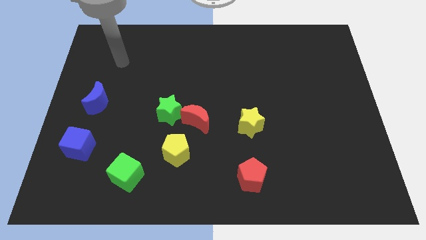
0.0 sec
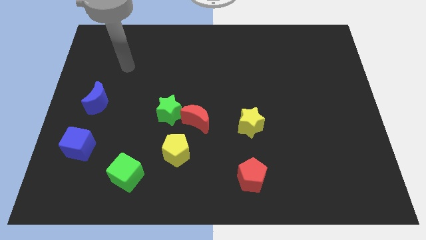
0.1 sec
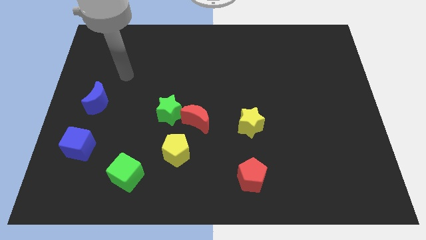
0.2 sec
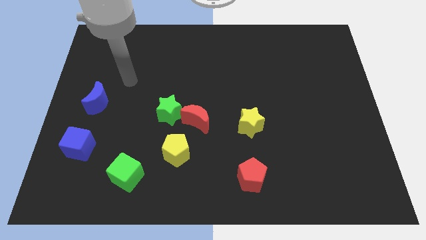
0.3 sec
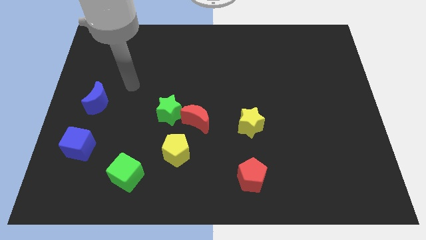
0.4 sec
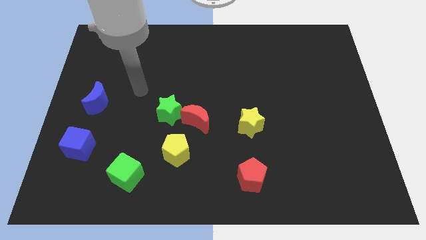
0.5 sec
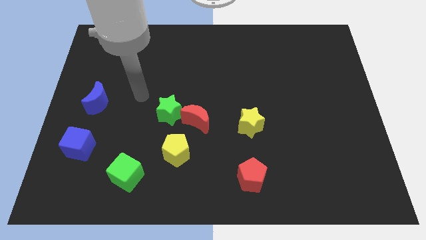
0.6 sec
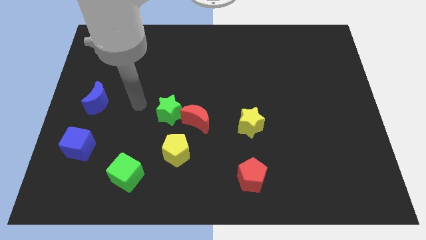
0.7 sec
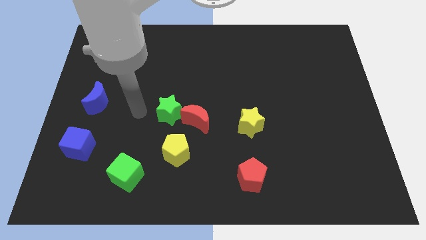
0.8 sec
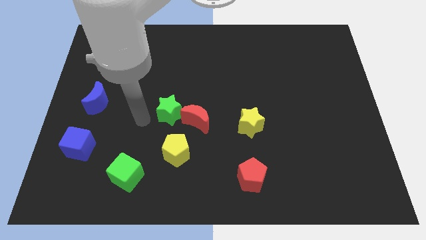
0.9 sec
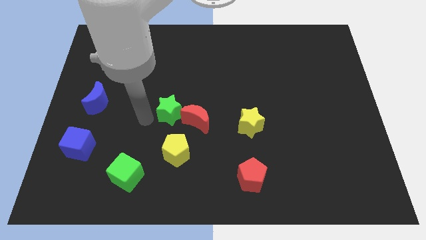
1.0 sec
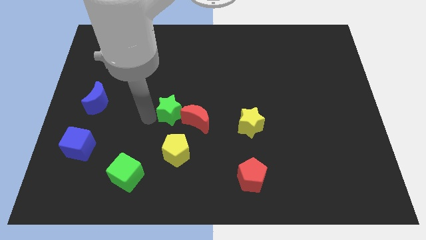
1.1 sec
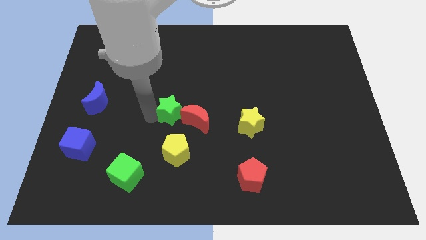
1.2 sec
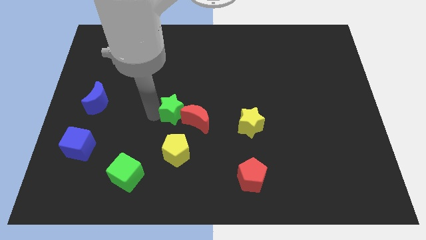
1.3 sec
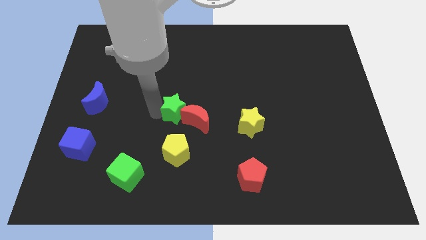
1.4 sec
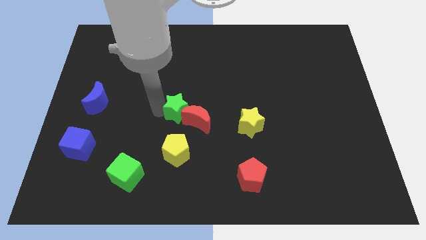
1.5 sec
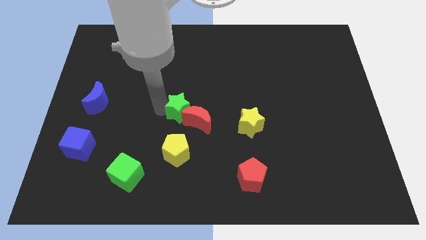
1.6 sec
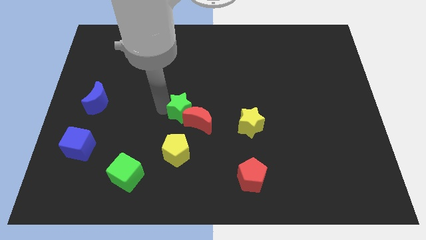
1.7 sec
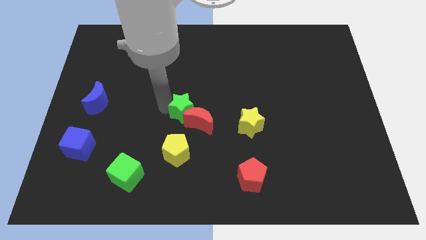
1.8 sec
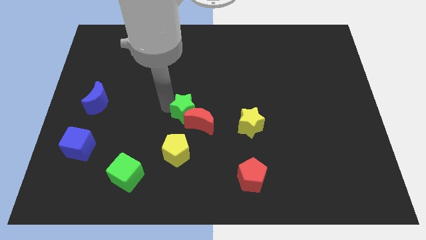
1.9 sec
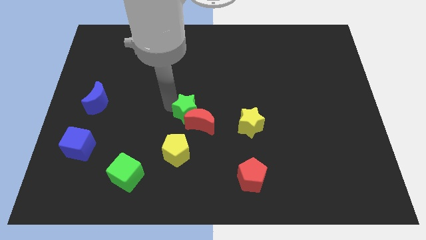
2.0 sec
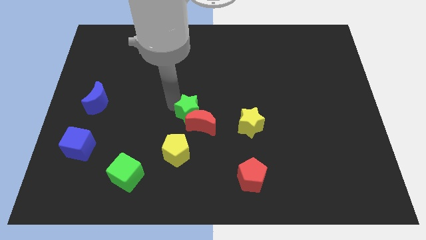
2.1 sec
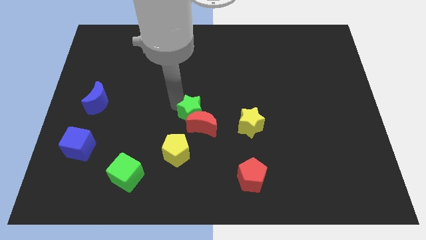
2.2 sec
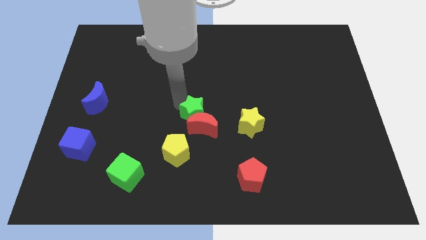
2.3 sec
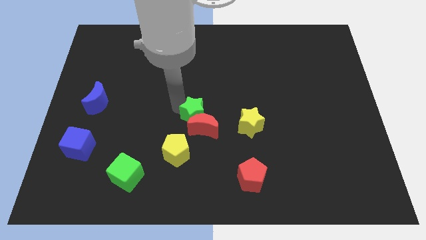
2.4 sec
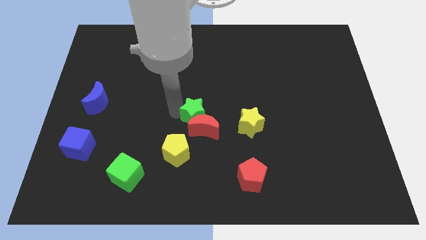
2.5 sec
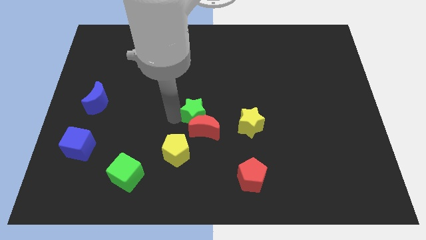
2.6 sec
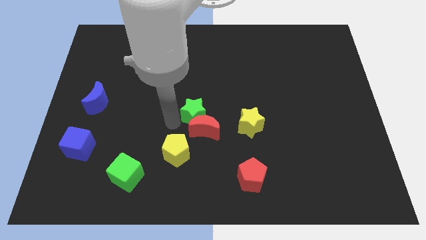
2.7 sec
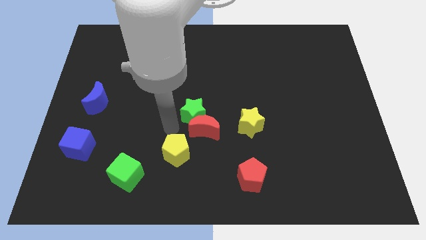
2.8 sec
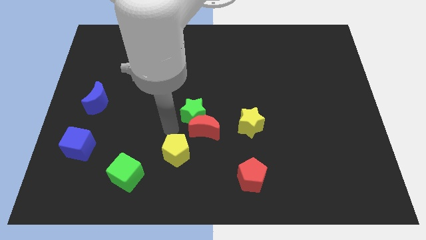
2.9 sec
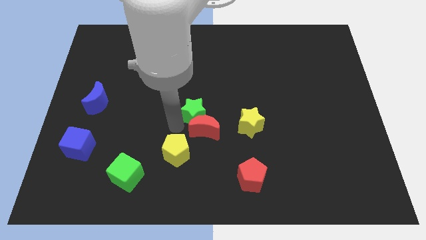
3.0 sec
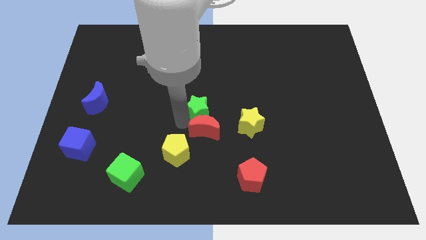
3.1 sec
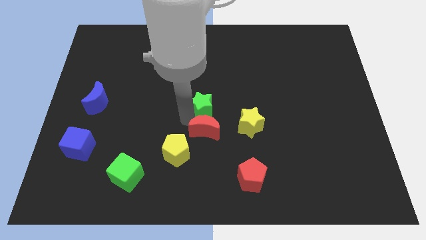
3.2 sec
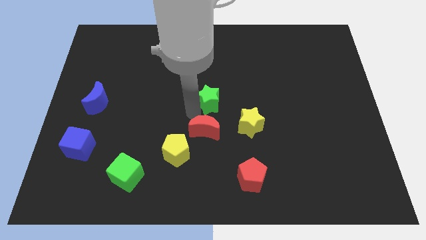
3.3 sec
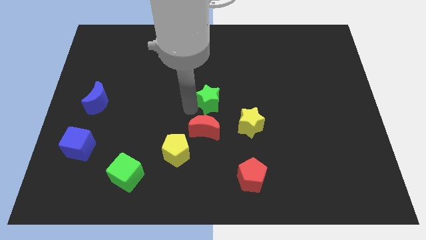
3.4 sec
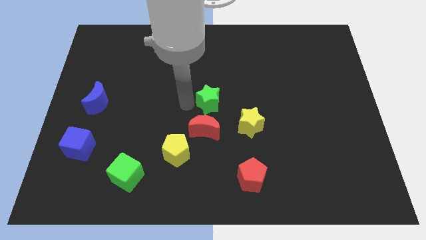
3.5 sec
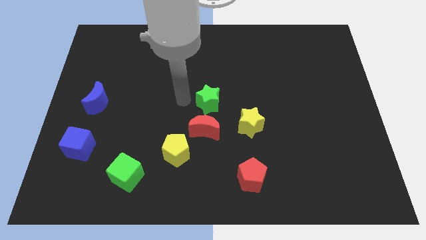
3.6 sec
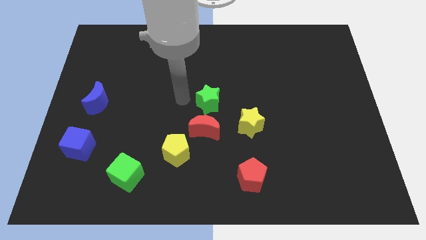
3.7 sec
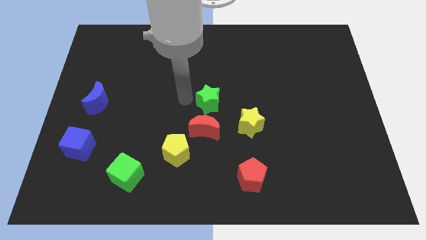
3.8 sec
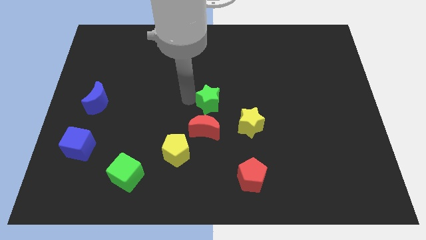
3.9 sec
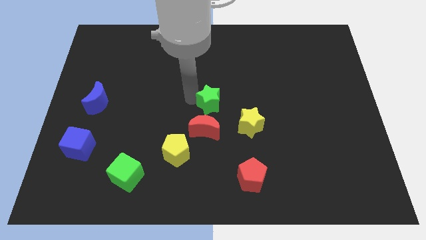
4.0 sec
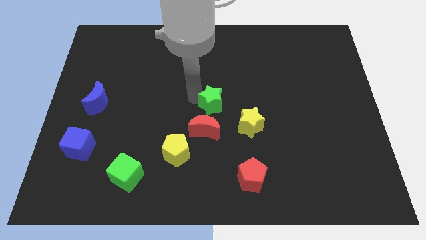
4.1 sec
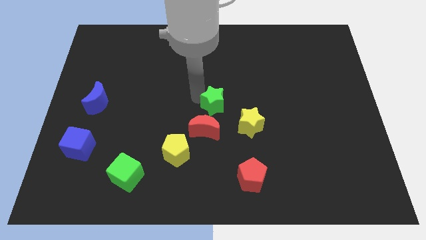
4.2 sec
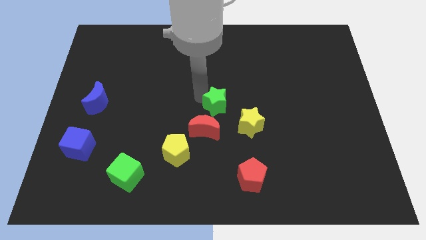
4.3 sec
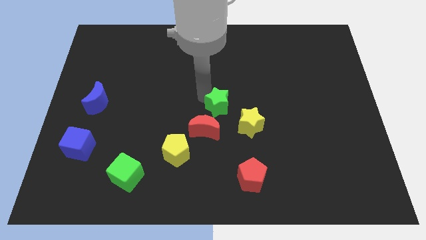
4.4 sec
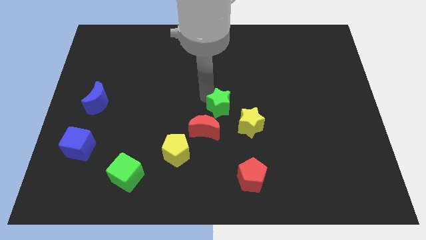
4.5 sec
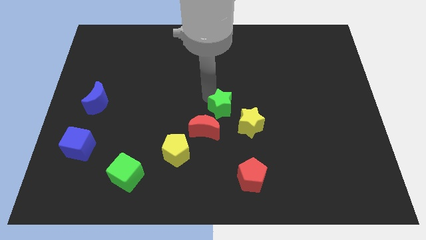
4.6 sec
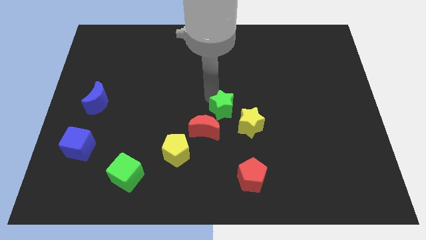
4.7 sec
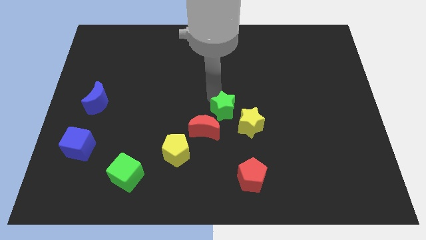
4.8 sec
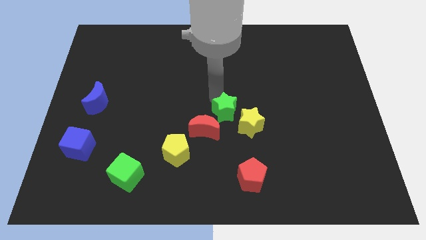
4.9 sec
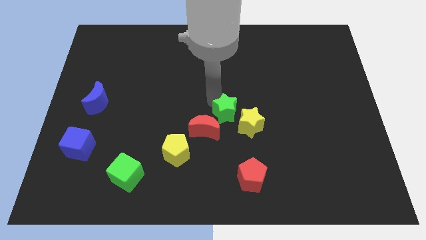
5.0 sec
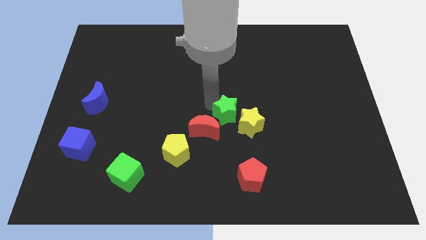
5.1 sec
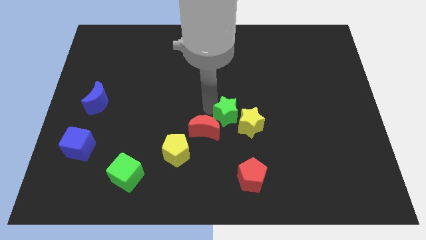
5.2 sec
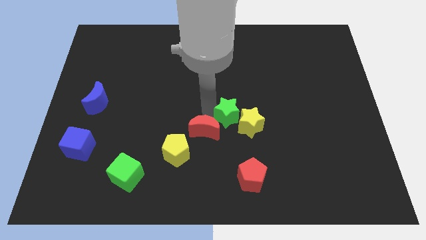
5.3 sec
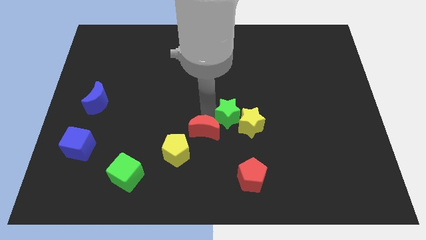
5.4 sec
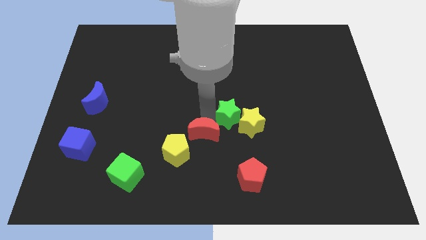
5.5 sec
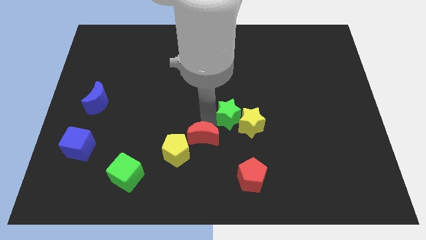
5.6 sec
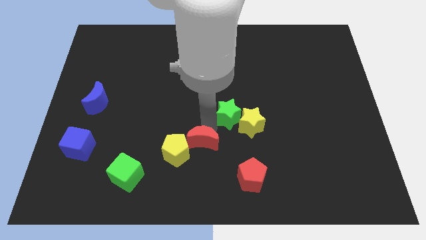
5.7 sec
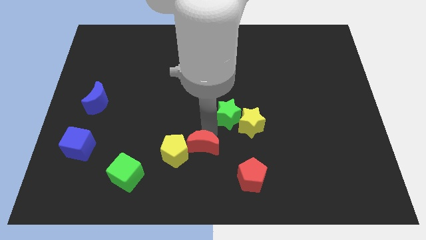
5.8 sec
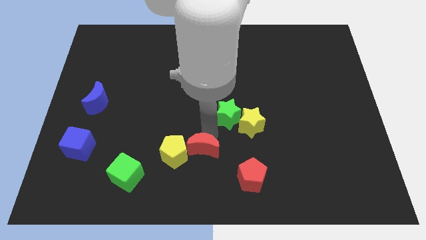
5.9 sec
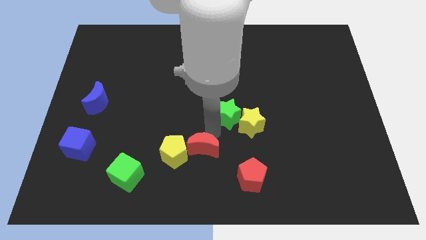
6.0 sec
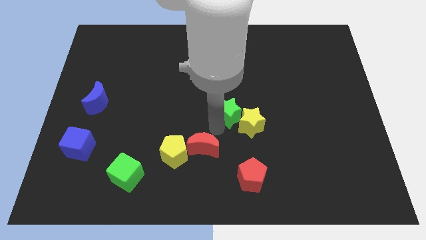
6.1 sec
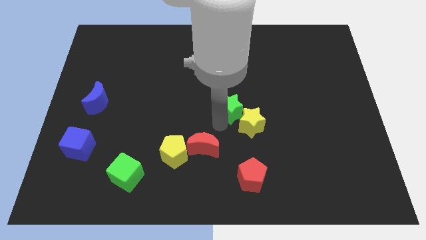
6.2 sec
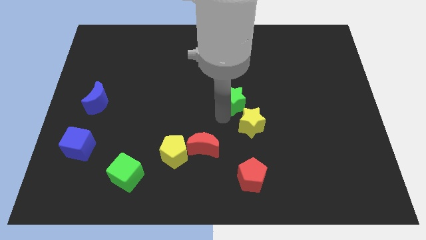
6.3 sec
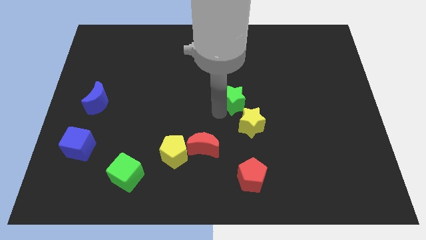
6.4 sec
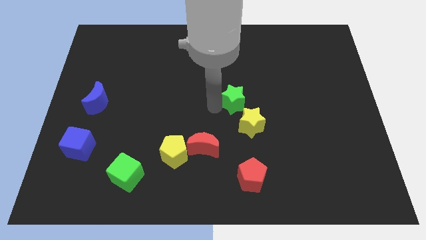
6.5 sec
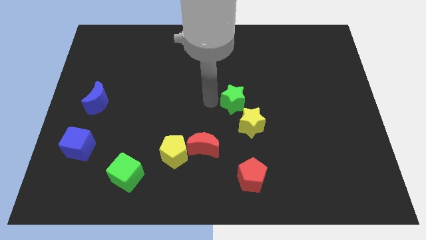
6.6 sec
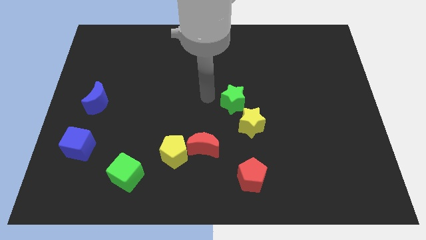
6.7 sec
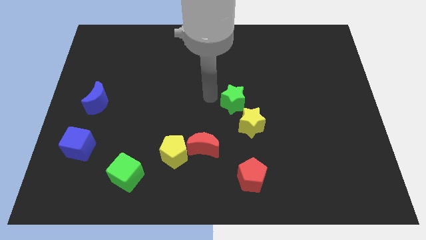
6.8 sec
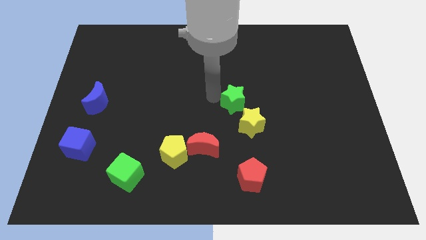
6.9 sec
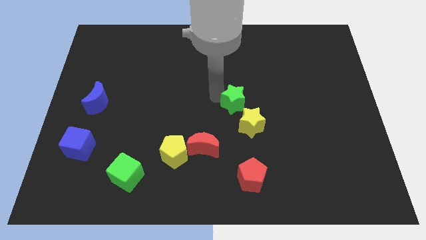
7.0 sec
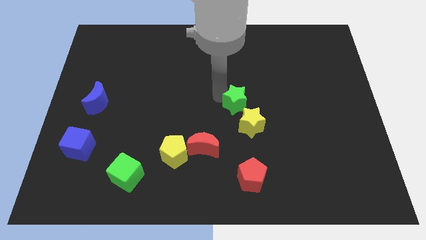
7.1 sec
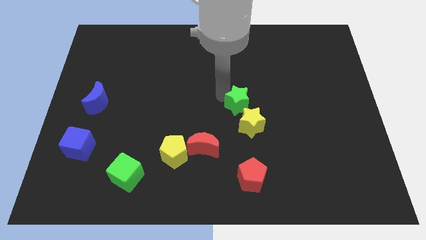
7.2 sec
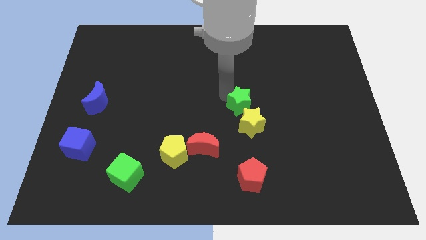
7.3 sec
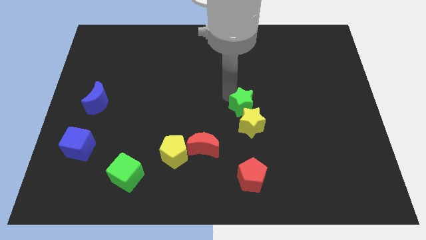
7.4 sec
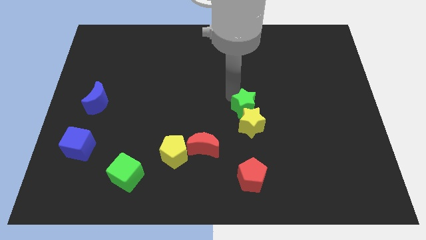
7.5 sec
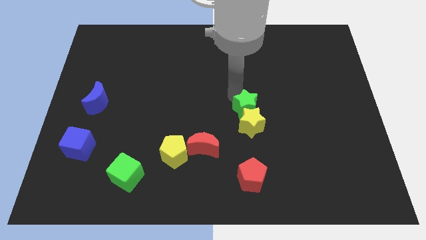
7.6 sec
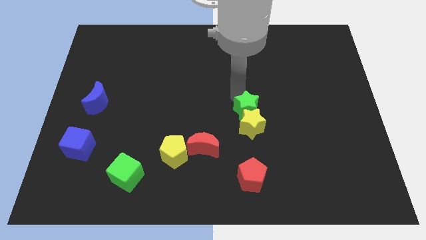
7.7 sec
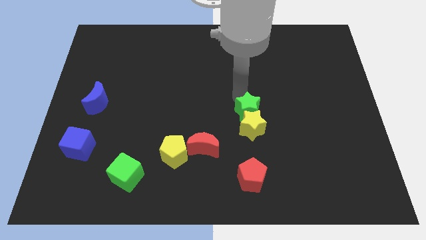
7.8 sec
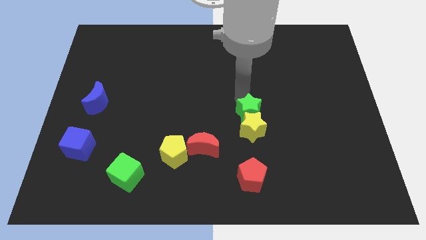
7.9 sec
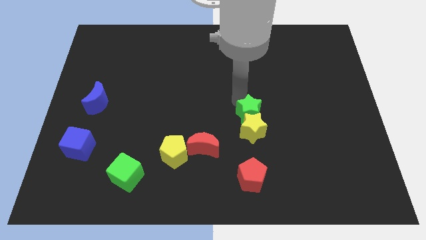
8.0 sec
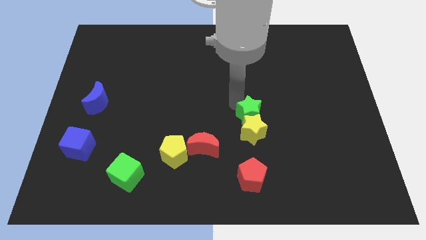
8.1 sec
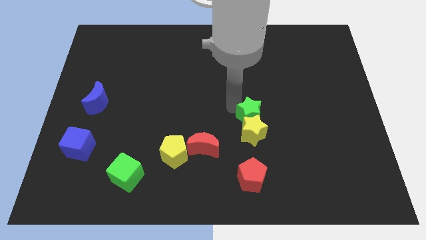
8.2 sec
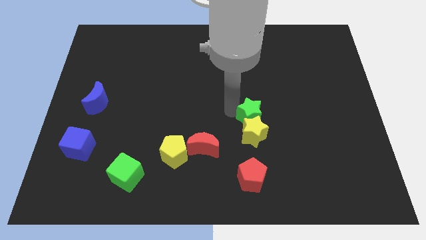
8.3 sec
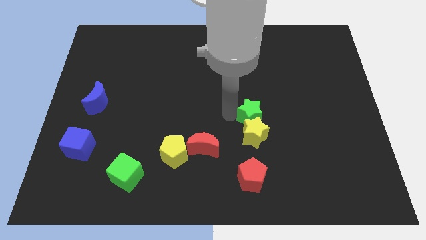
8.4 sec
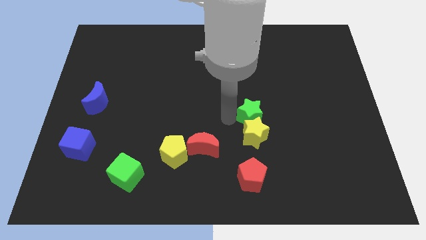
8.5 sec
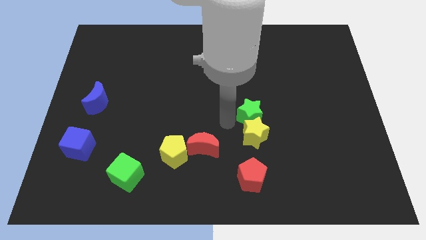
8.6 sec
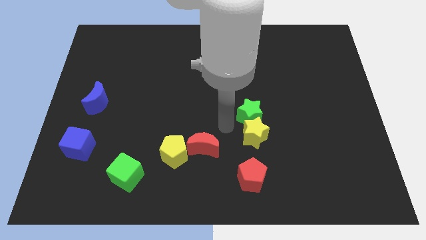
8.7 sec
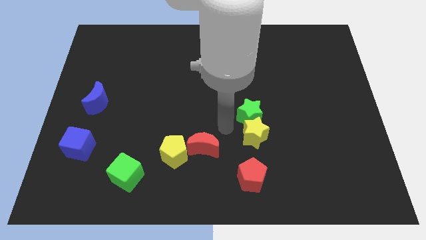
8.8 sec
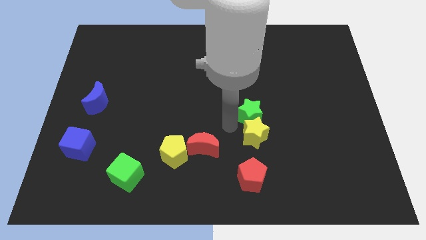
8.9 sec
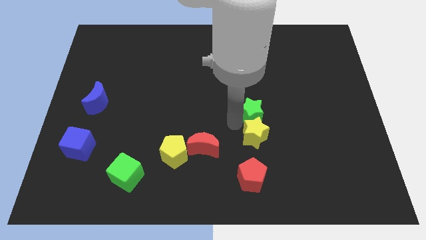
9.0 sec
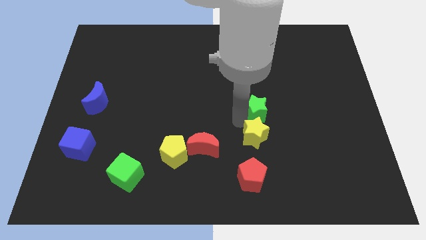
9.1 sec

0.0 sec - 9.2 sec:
push the green star right
